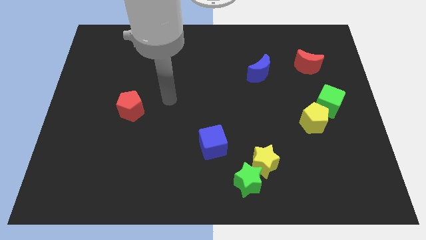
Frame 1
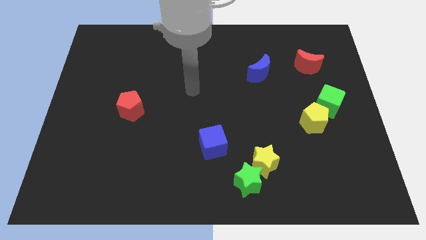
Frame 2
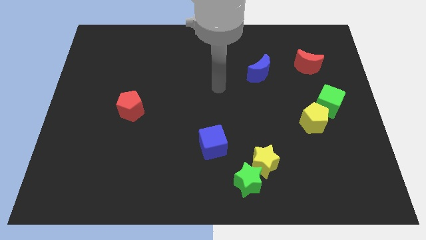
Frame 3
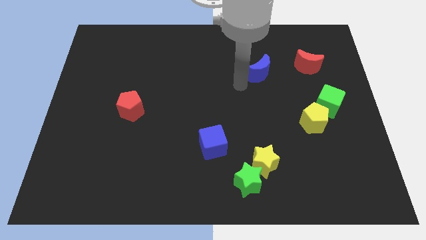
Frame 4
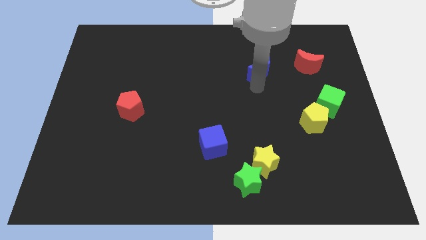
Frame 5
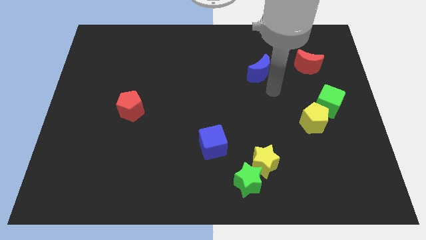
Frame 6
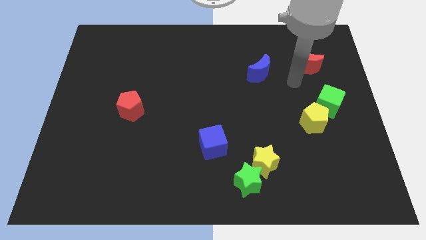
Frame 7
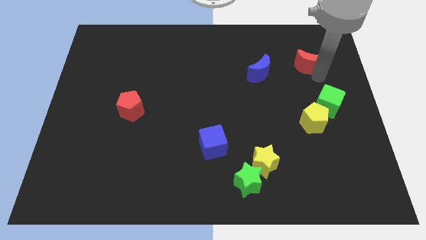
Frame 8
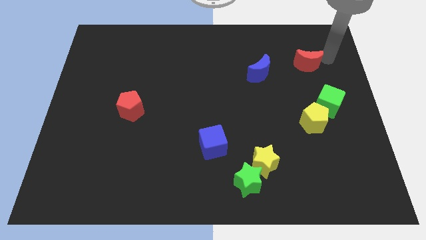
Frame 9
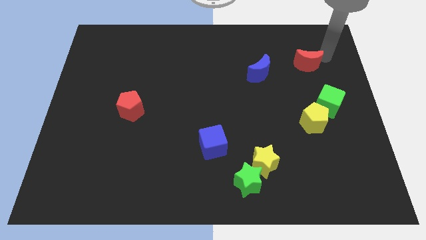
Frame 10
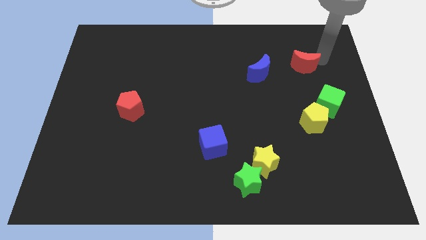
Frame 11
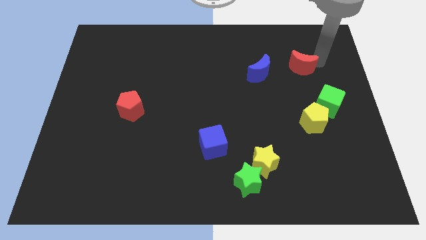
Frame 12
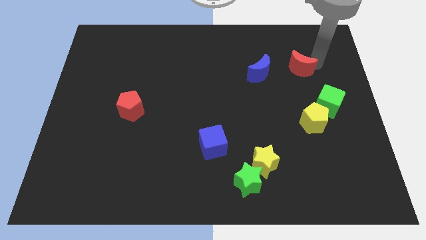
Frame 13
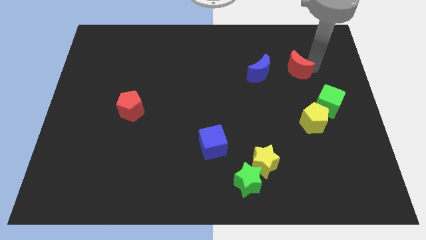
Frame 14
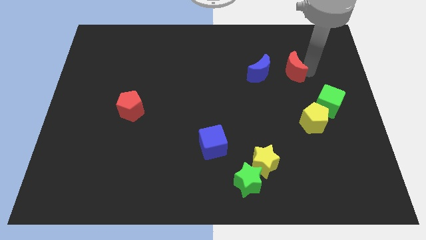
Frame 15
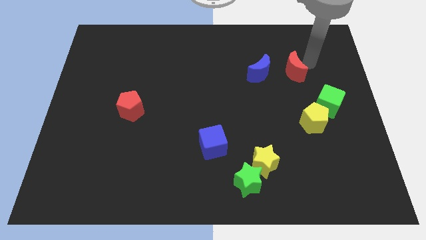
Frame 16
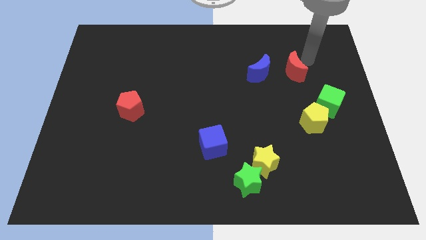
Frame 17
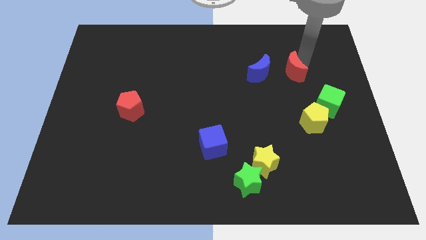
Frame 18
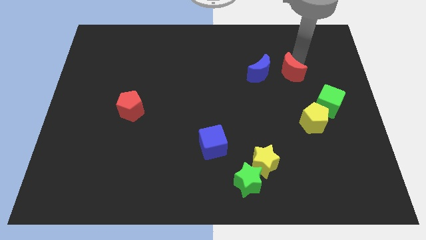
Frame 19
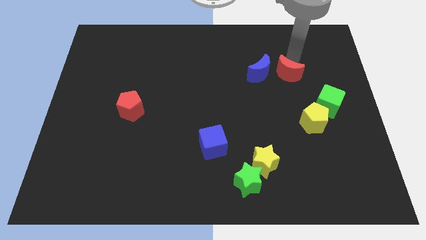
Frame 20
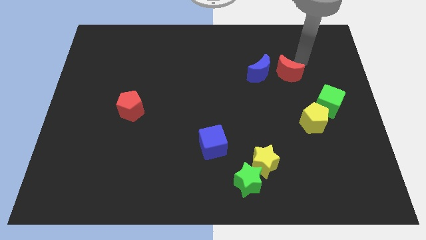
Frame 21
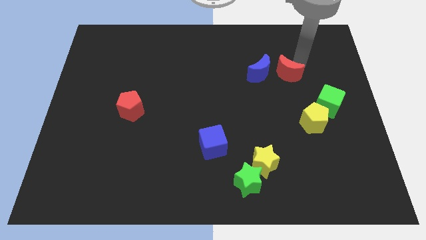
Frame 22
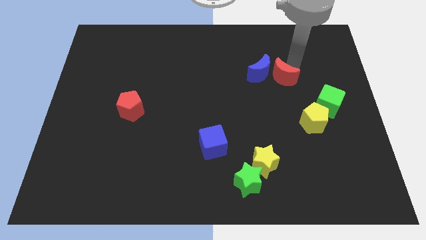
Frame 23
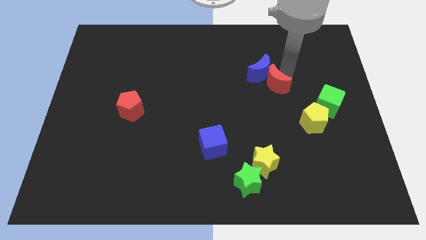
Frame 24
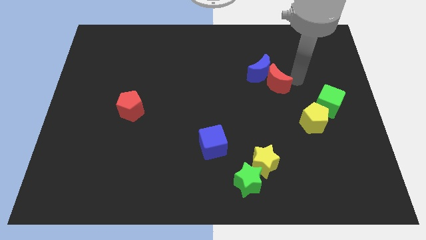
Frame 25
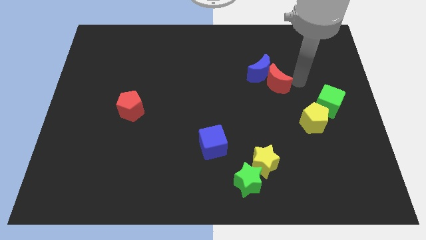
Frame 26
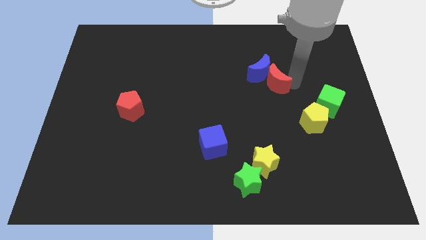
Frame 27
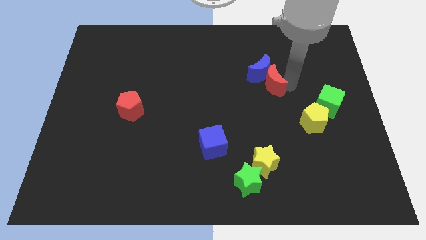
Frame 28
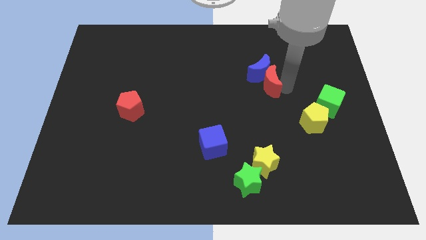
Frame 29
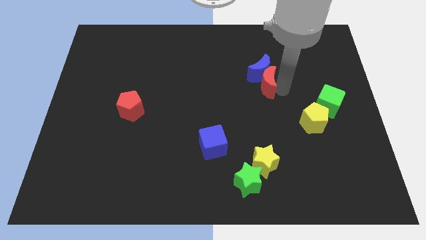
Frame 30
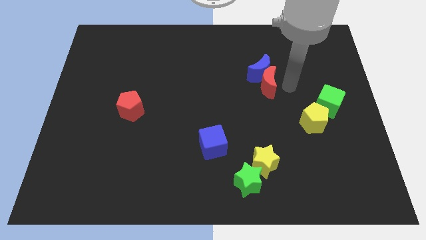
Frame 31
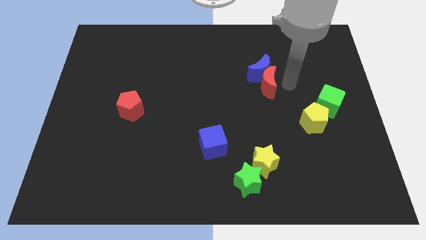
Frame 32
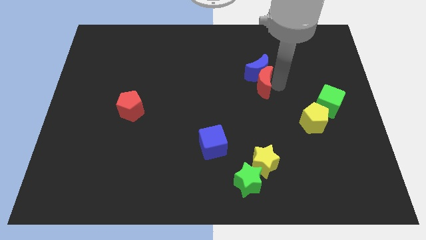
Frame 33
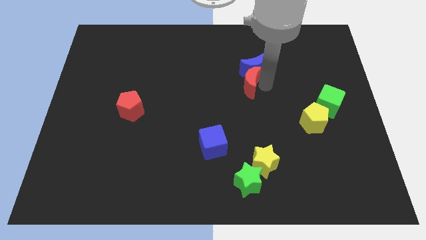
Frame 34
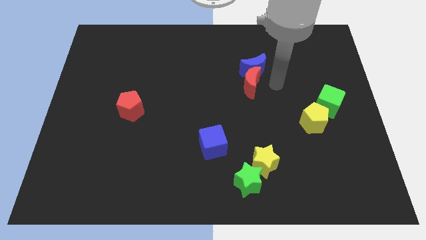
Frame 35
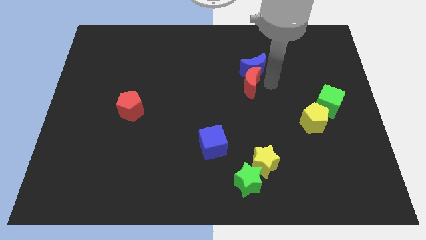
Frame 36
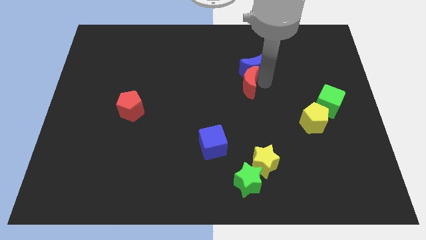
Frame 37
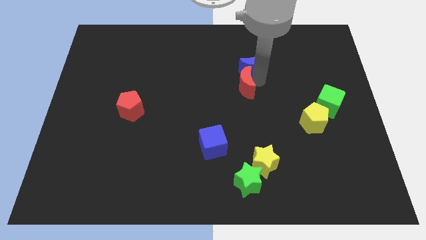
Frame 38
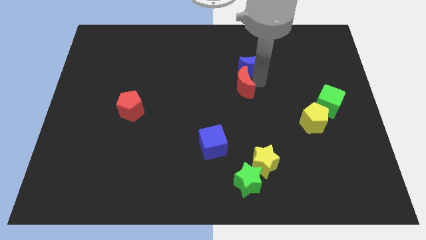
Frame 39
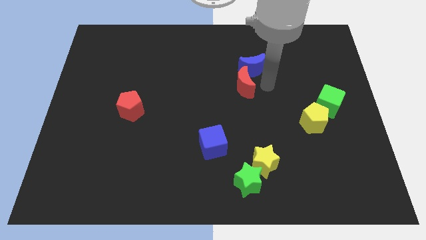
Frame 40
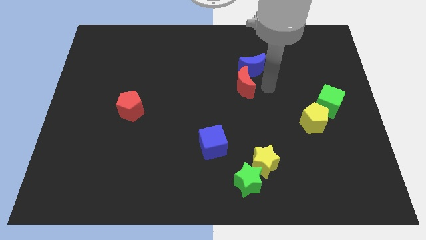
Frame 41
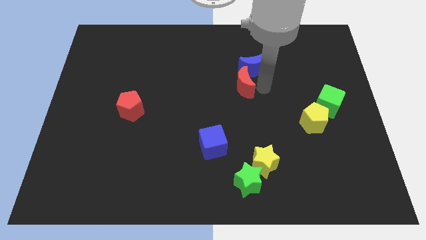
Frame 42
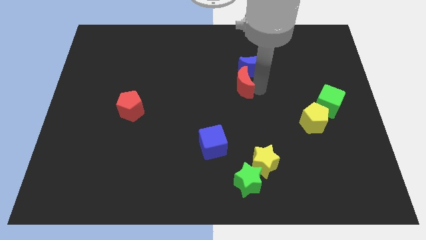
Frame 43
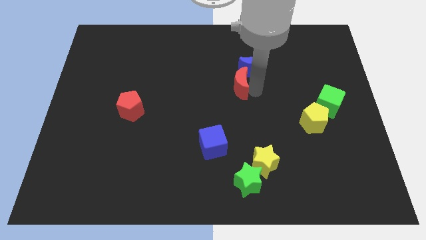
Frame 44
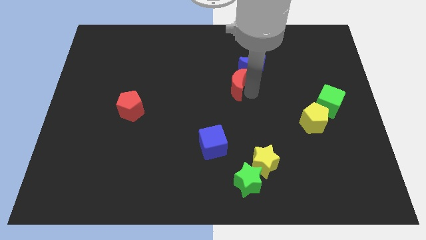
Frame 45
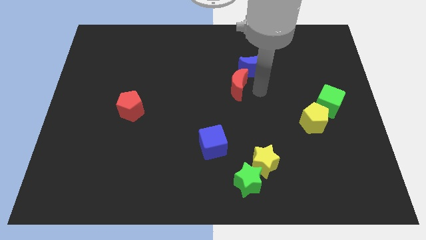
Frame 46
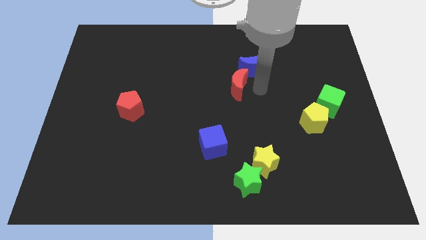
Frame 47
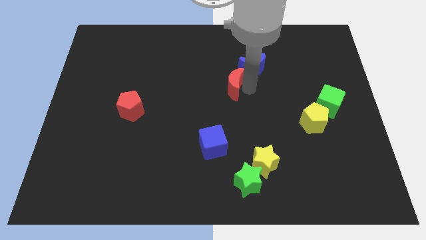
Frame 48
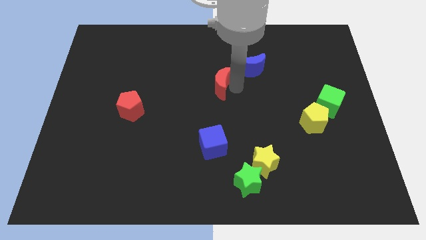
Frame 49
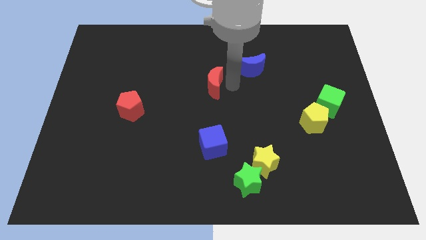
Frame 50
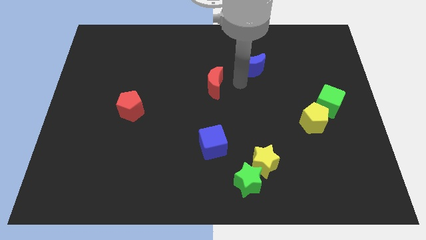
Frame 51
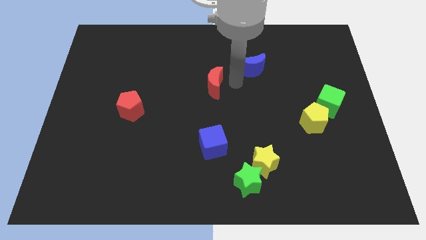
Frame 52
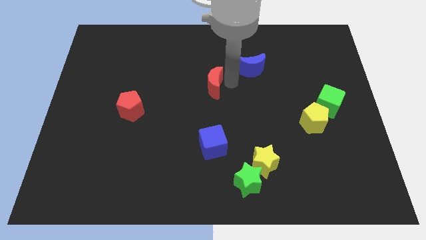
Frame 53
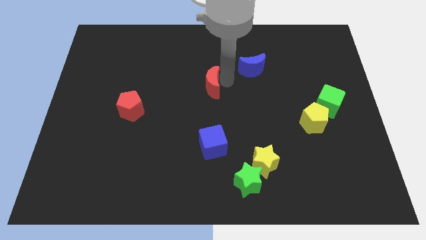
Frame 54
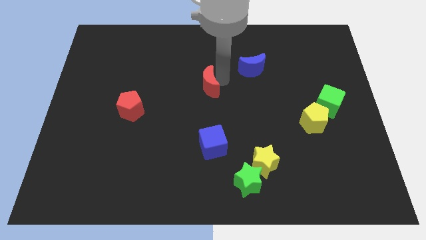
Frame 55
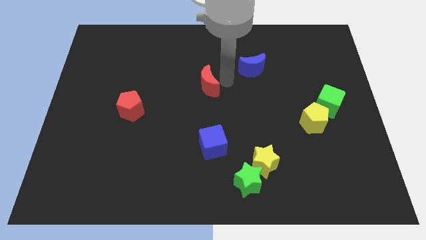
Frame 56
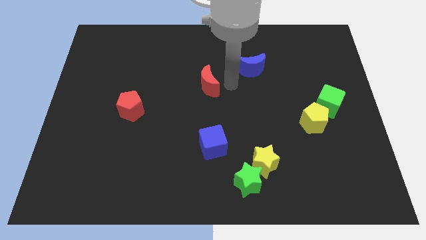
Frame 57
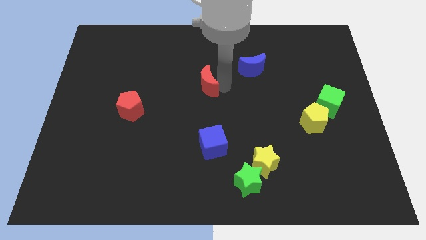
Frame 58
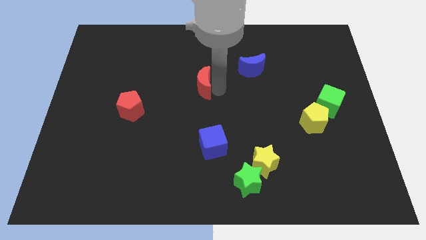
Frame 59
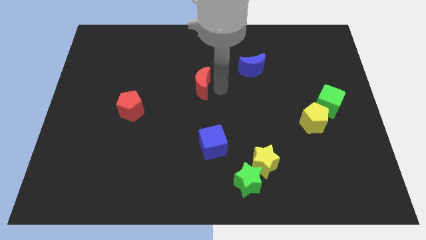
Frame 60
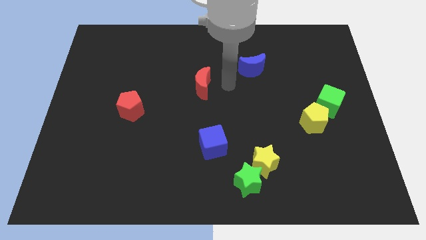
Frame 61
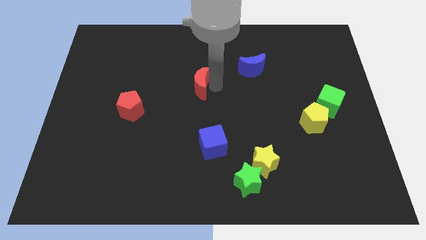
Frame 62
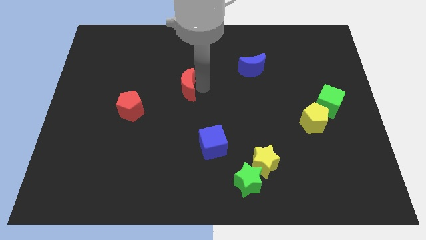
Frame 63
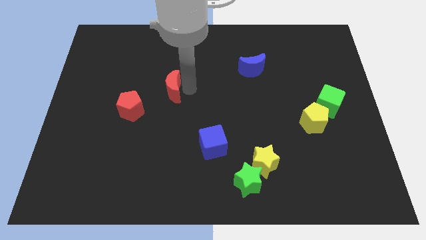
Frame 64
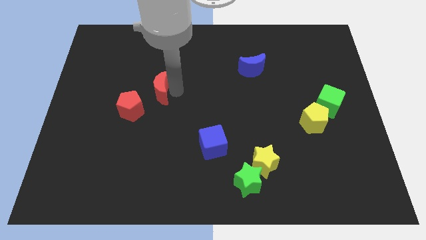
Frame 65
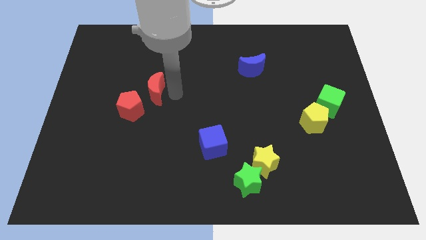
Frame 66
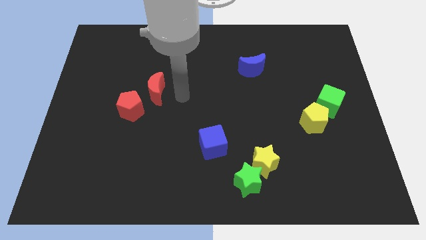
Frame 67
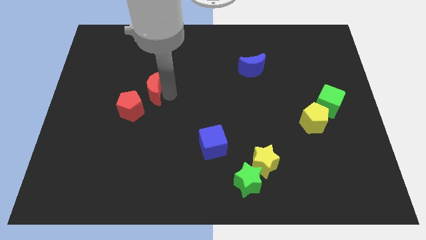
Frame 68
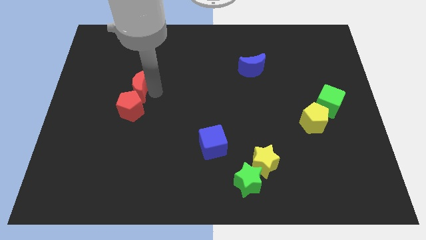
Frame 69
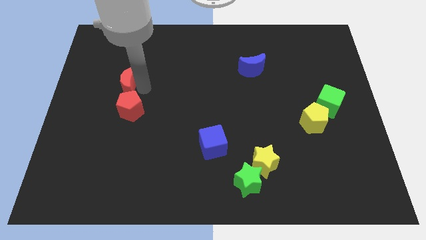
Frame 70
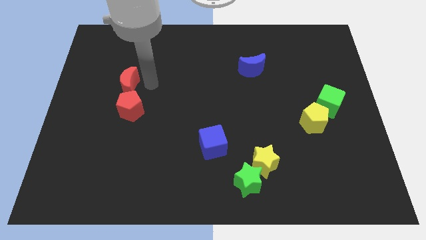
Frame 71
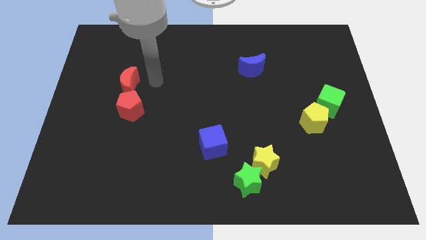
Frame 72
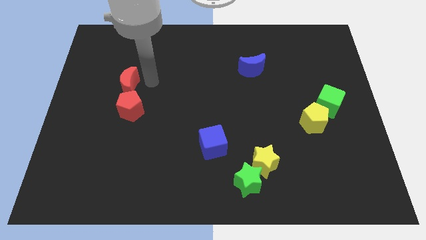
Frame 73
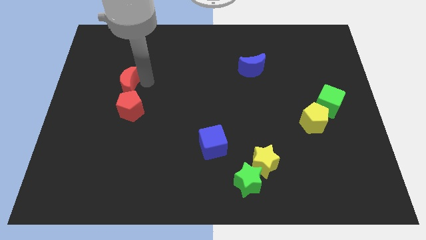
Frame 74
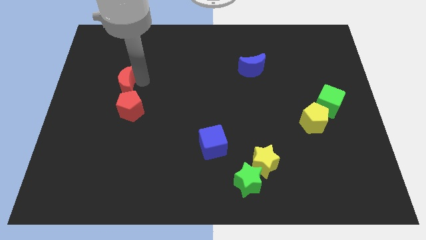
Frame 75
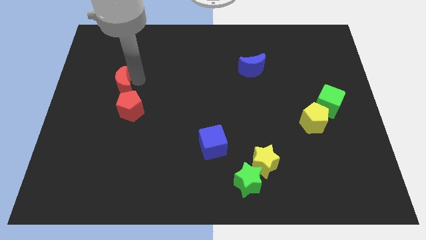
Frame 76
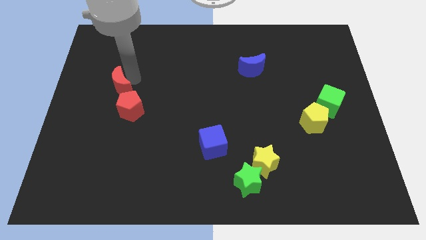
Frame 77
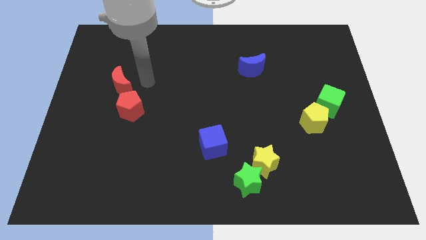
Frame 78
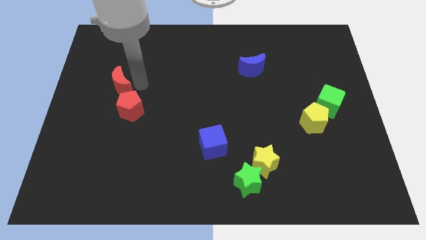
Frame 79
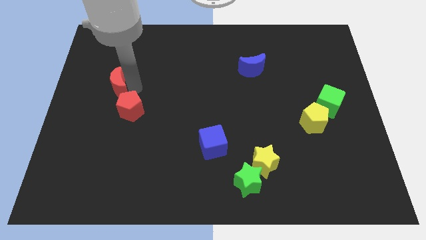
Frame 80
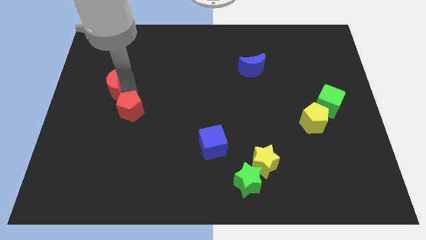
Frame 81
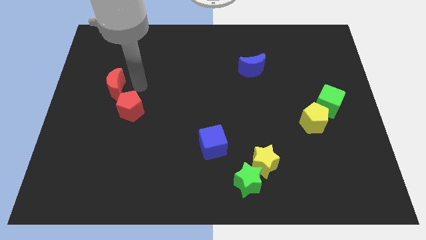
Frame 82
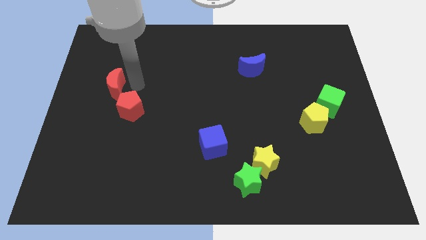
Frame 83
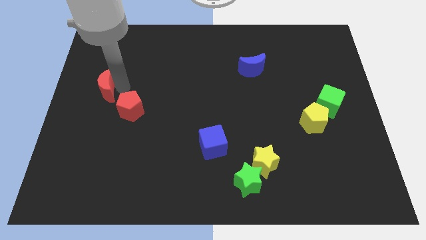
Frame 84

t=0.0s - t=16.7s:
put the red moon to the left side of the board
